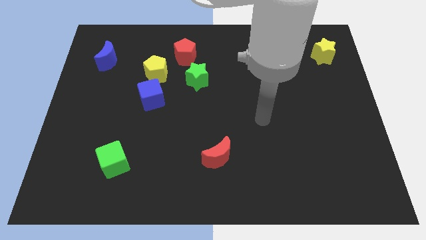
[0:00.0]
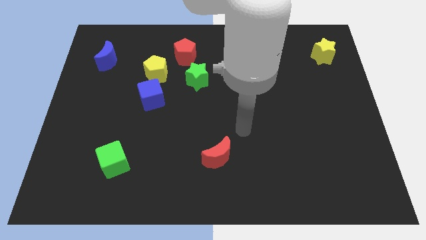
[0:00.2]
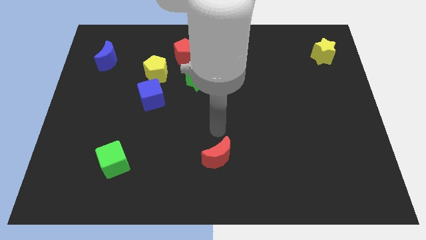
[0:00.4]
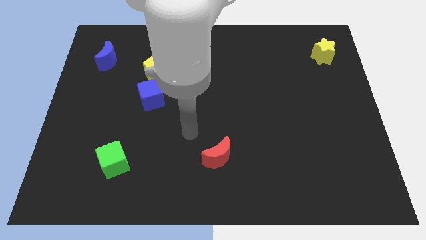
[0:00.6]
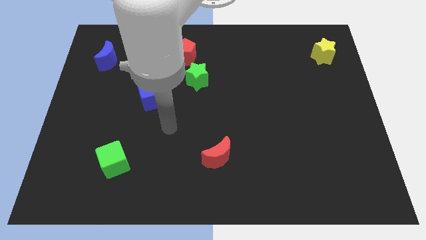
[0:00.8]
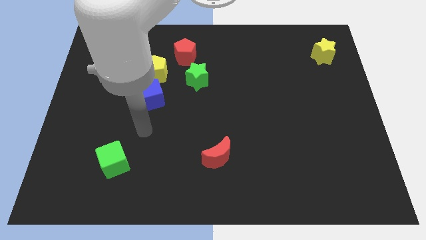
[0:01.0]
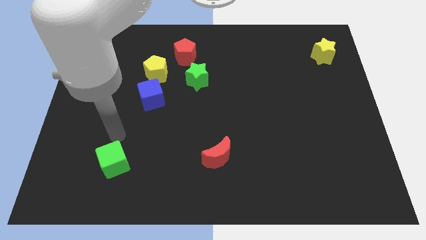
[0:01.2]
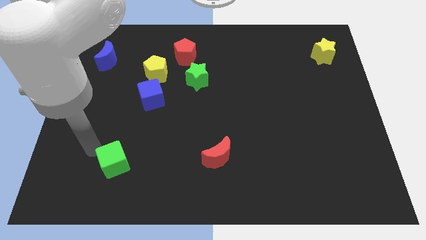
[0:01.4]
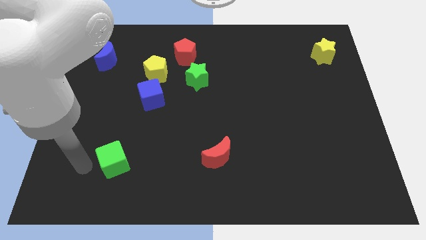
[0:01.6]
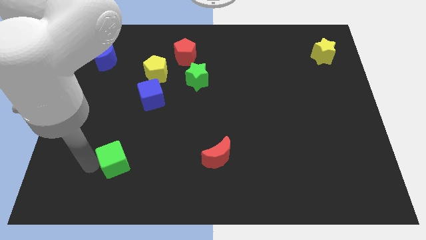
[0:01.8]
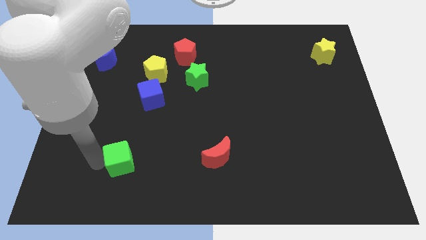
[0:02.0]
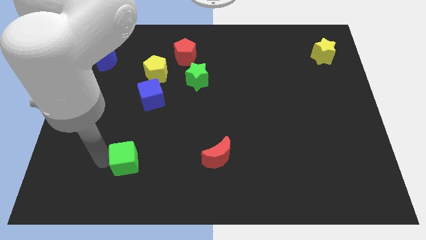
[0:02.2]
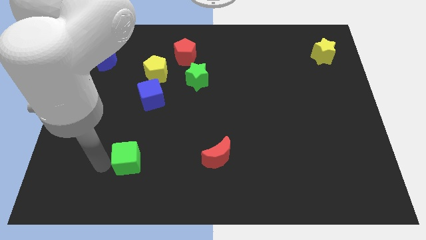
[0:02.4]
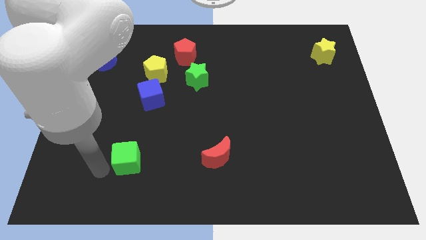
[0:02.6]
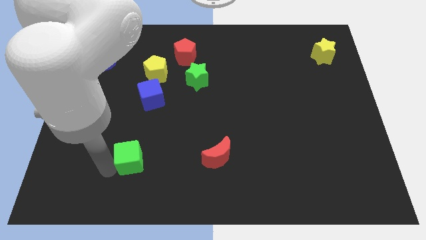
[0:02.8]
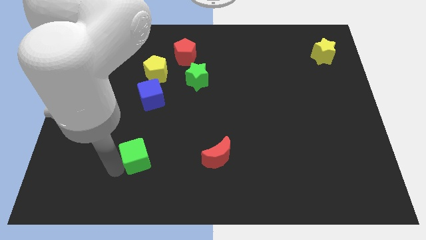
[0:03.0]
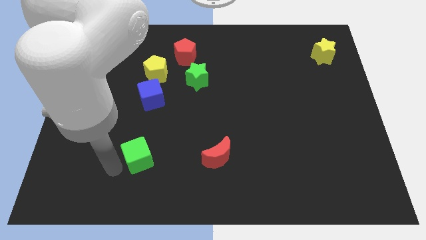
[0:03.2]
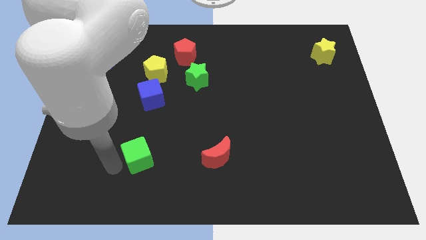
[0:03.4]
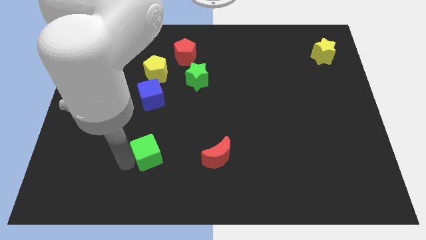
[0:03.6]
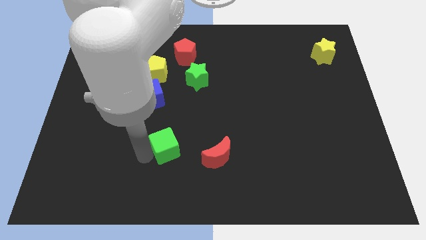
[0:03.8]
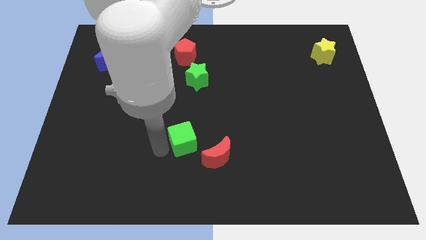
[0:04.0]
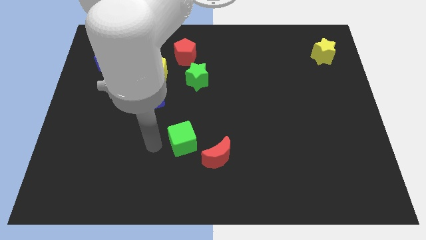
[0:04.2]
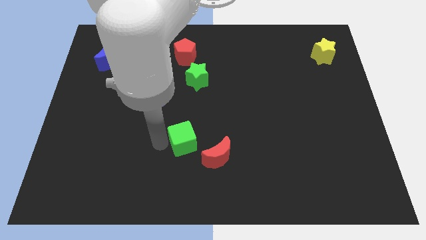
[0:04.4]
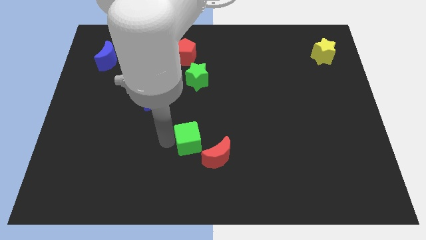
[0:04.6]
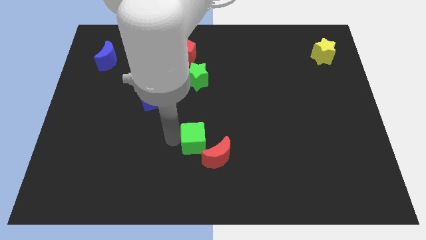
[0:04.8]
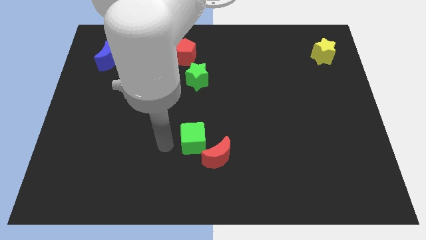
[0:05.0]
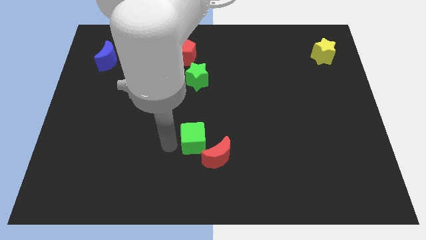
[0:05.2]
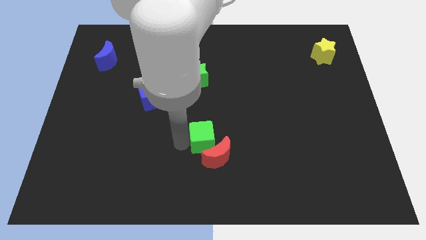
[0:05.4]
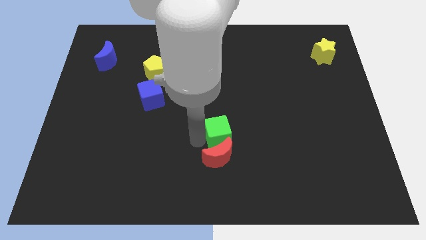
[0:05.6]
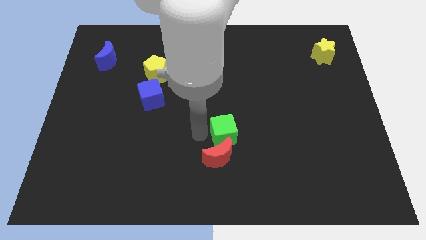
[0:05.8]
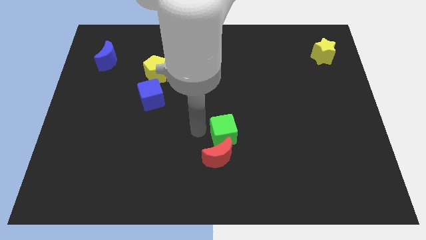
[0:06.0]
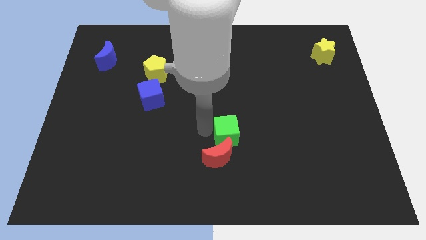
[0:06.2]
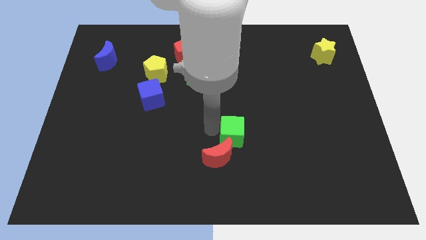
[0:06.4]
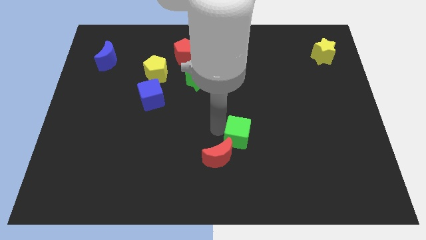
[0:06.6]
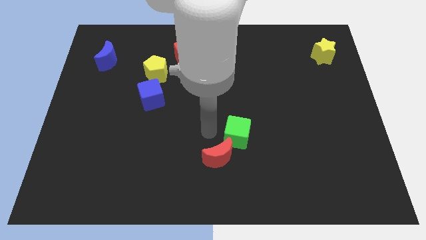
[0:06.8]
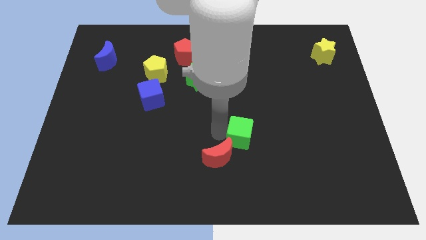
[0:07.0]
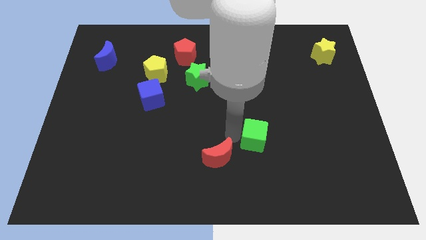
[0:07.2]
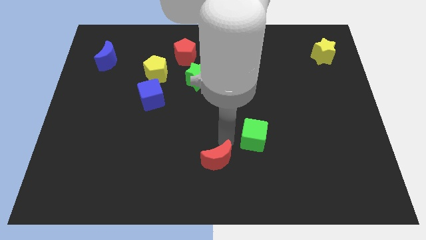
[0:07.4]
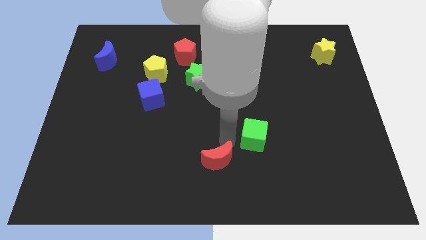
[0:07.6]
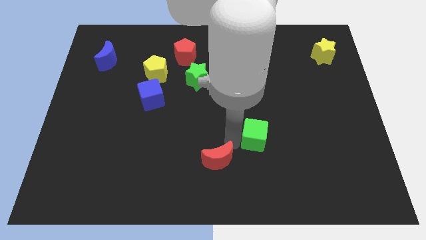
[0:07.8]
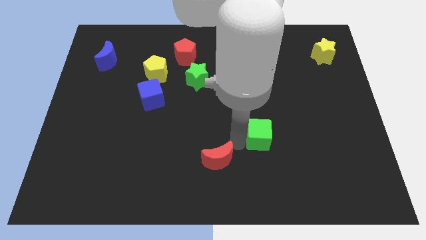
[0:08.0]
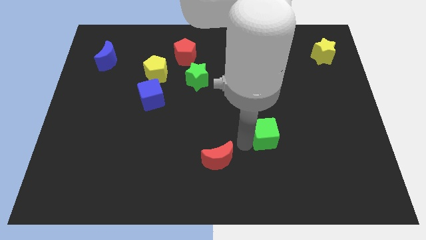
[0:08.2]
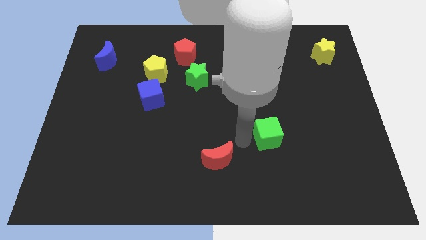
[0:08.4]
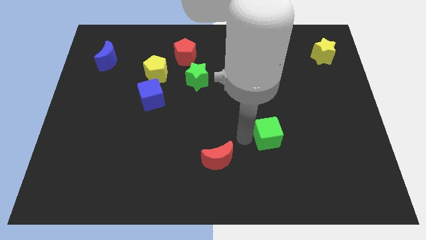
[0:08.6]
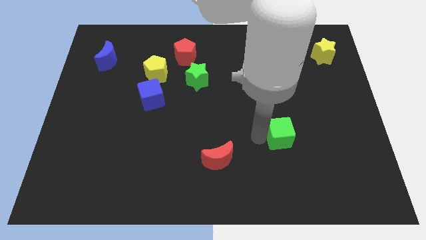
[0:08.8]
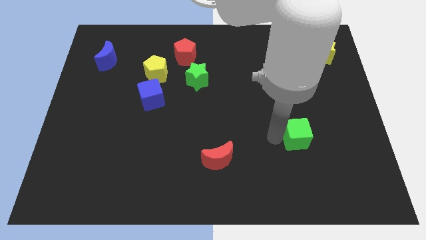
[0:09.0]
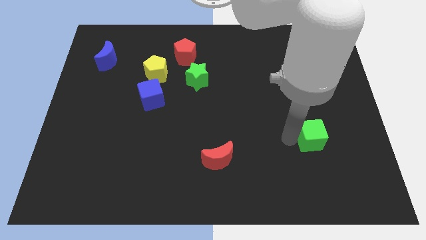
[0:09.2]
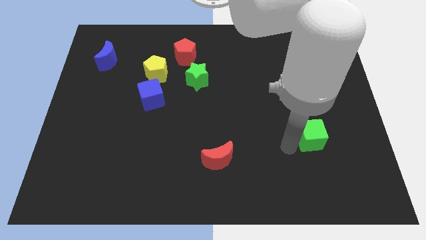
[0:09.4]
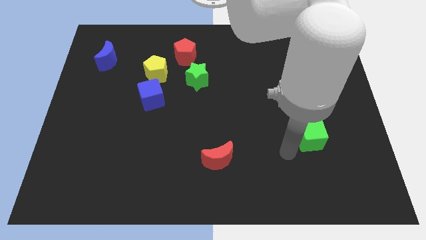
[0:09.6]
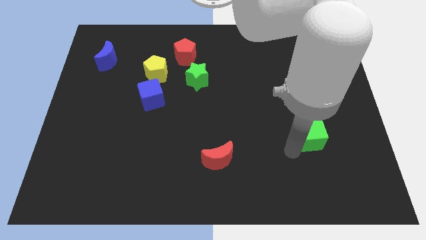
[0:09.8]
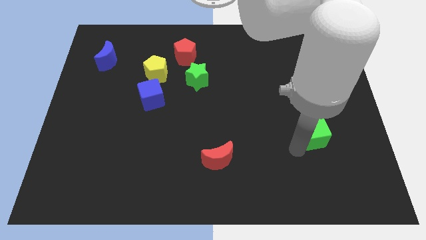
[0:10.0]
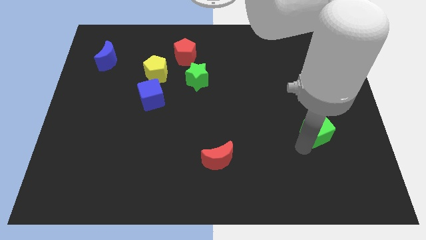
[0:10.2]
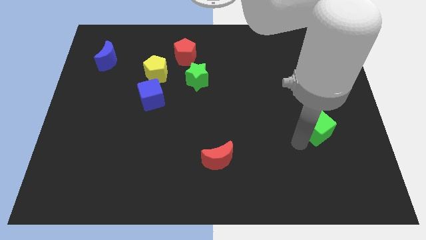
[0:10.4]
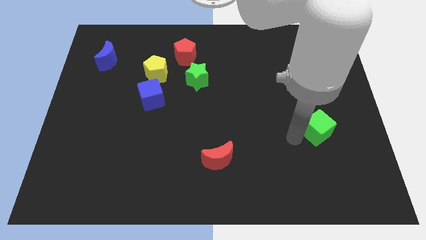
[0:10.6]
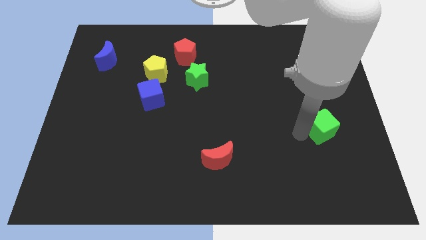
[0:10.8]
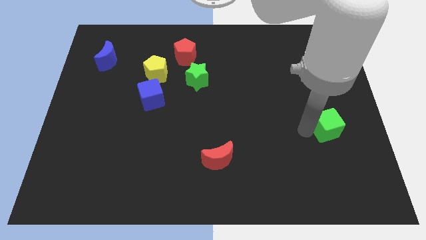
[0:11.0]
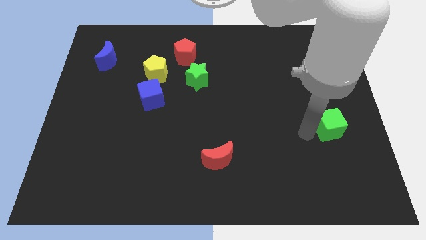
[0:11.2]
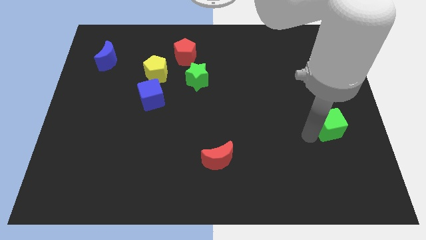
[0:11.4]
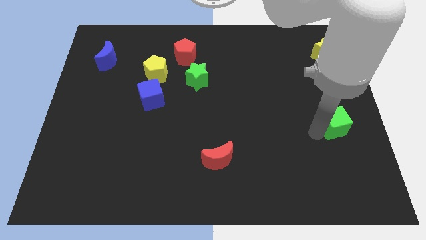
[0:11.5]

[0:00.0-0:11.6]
slide the green cube to the center right
